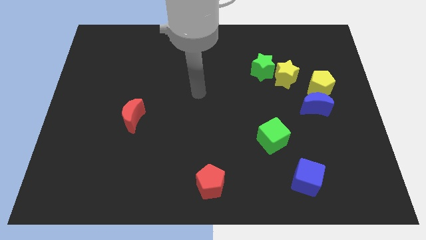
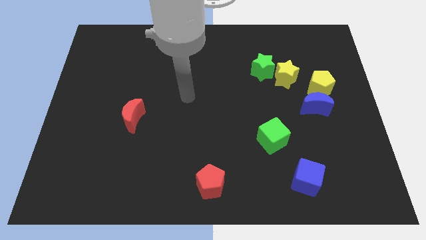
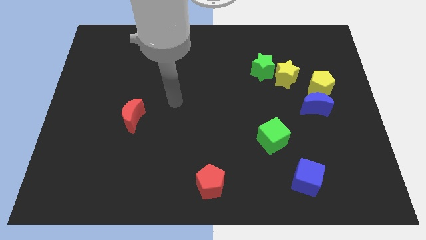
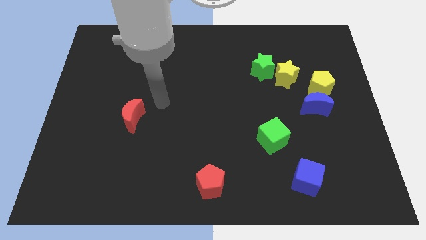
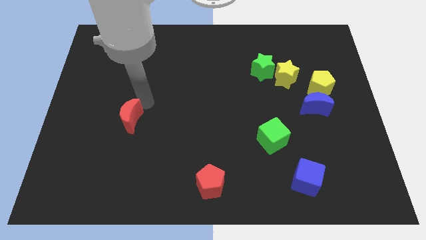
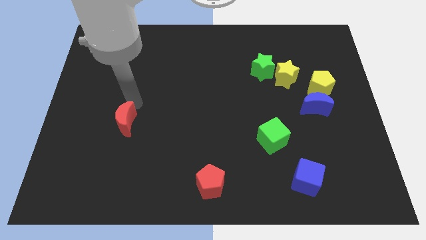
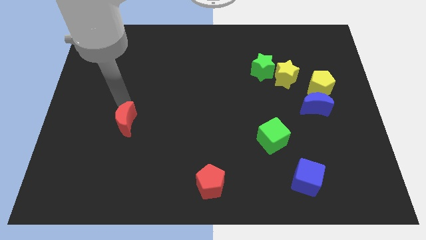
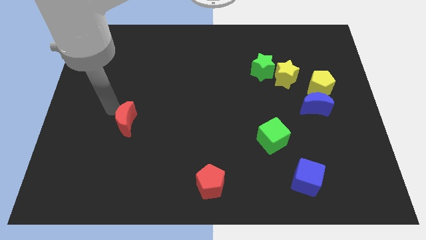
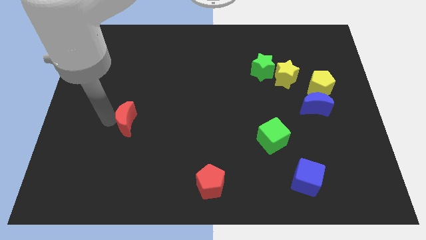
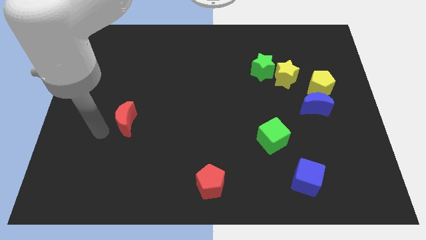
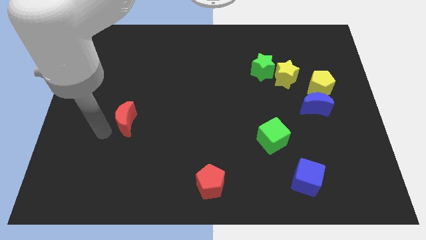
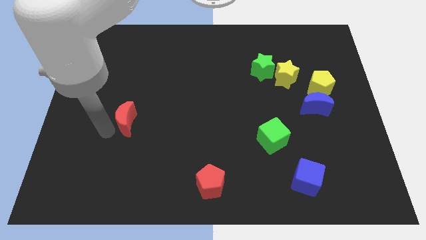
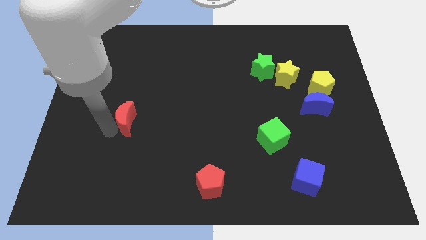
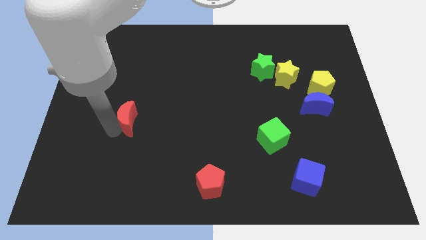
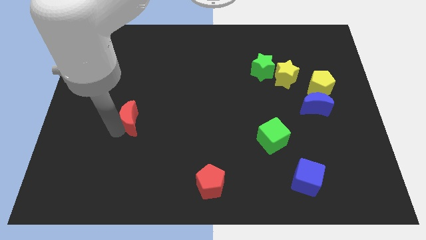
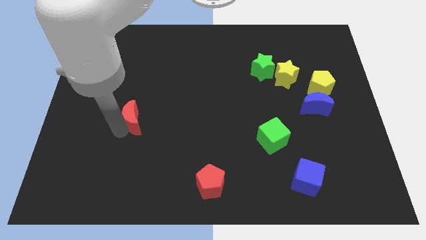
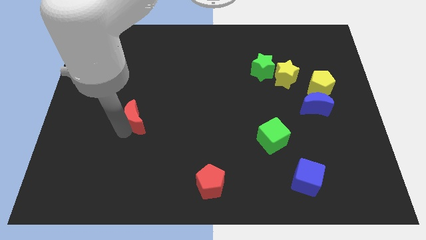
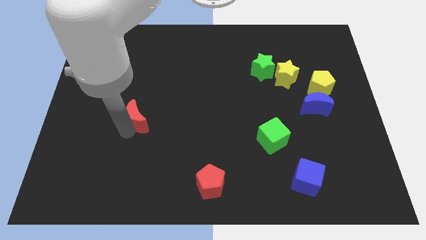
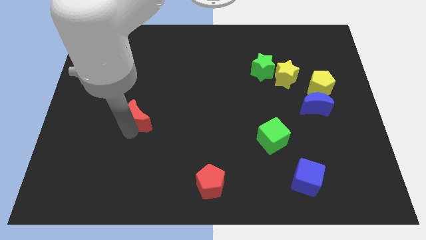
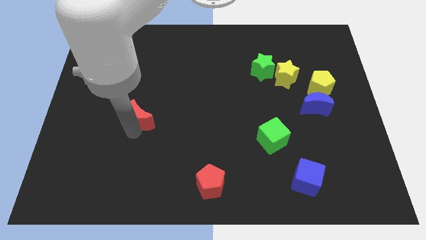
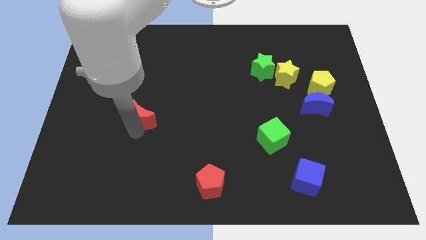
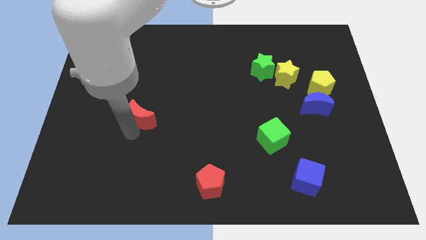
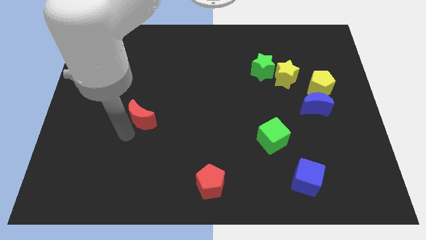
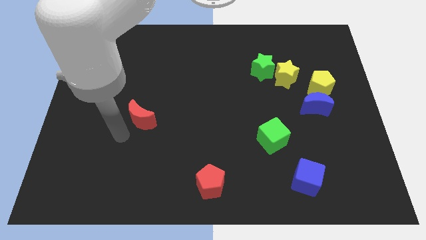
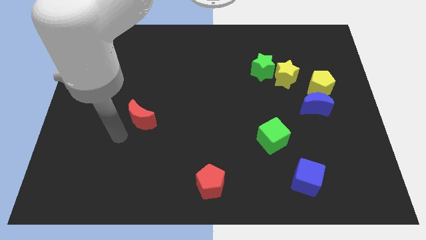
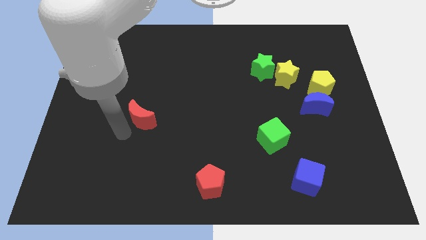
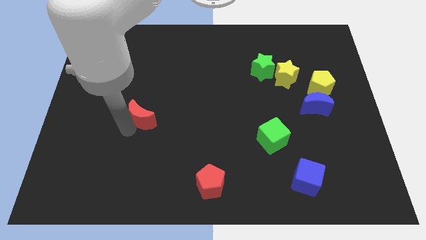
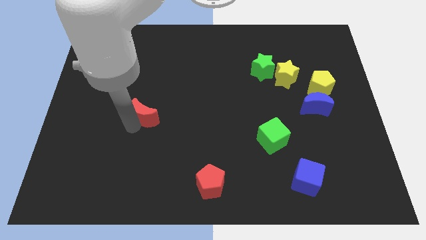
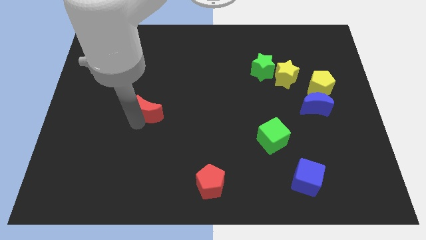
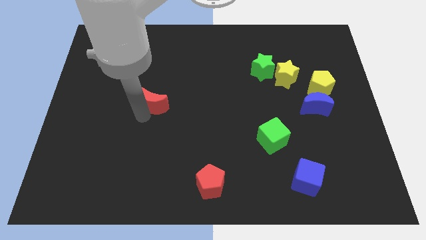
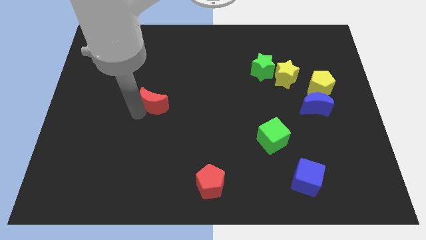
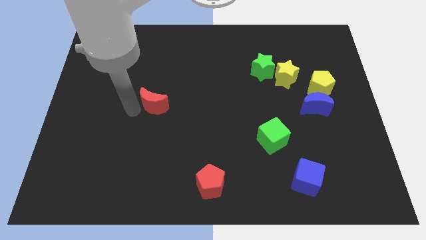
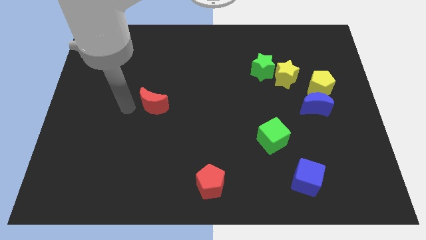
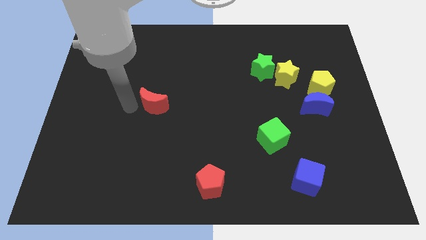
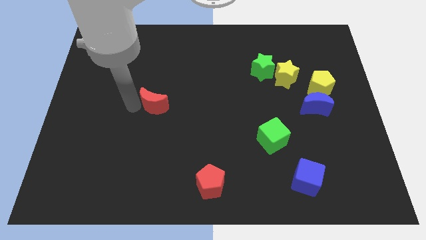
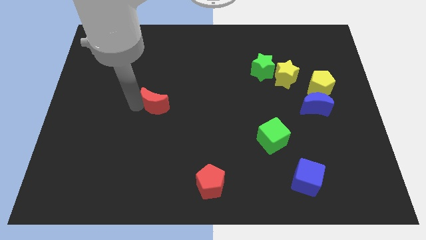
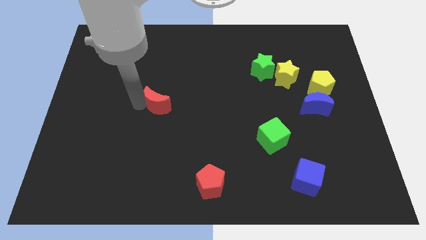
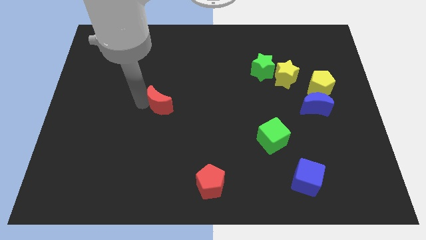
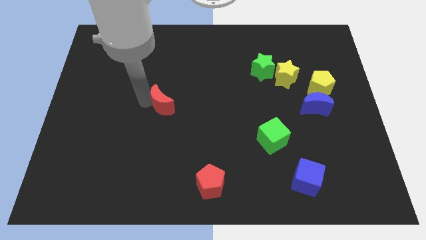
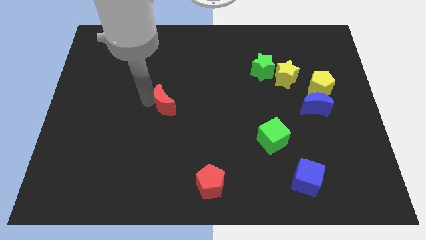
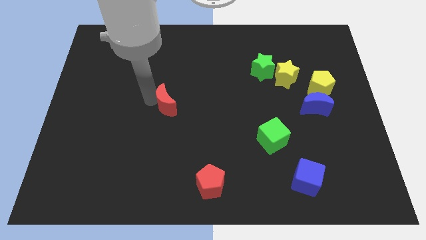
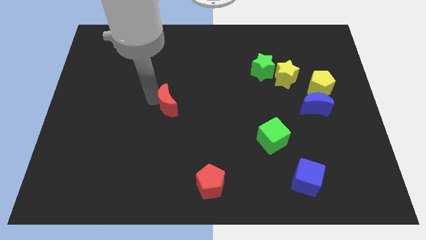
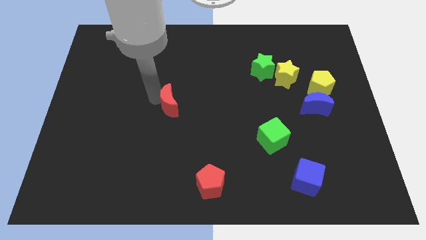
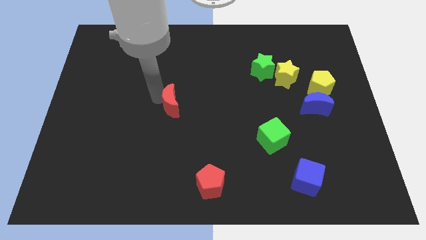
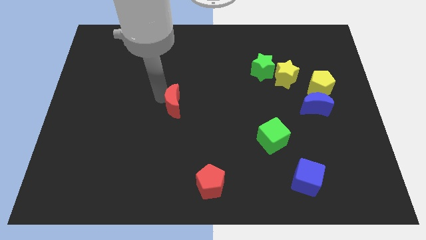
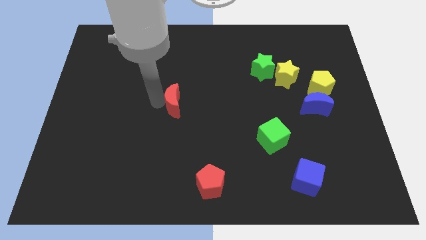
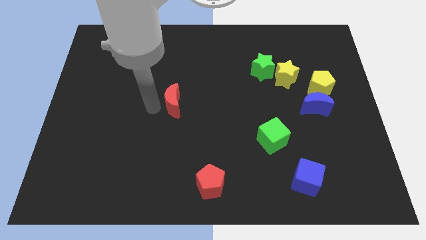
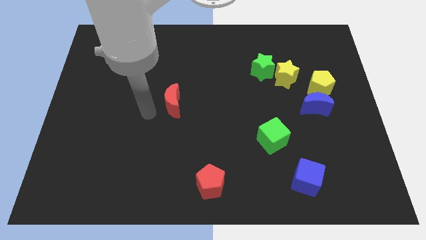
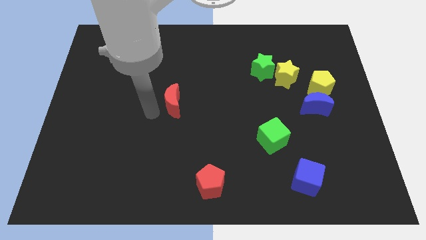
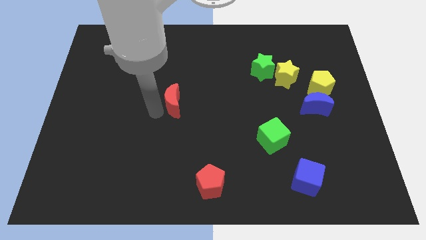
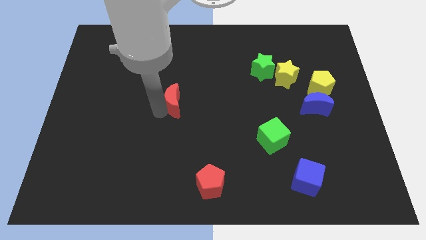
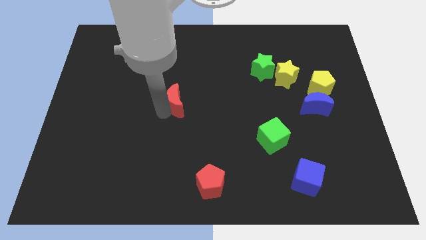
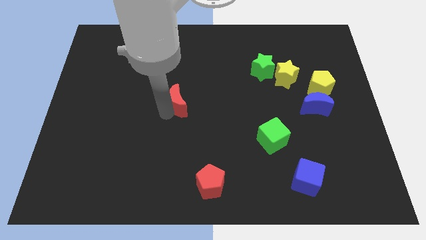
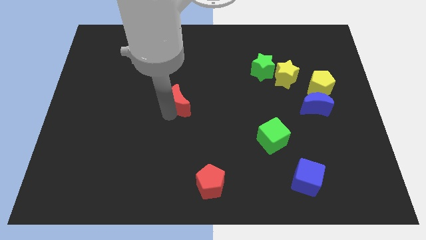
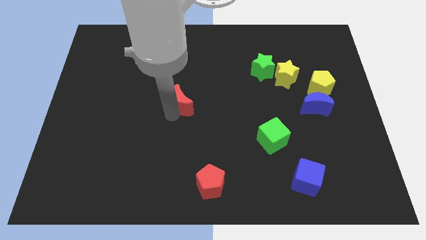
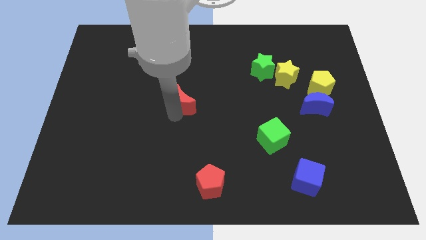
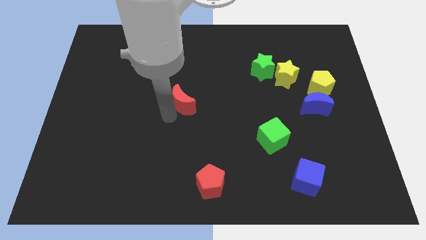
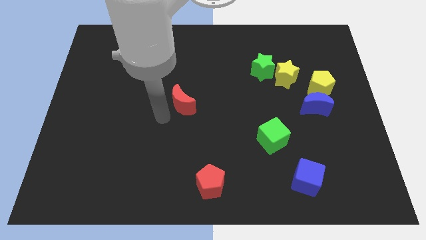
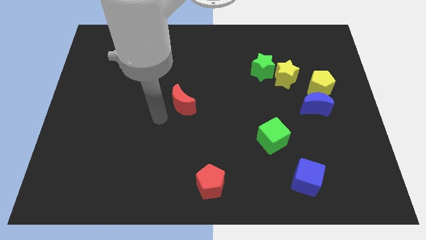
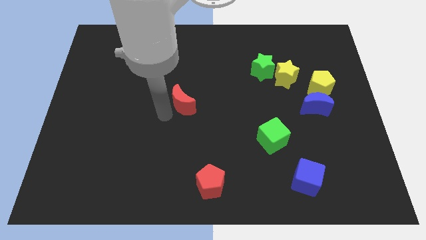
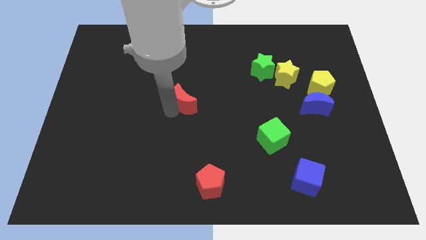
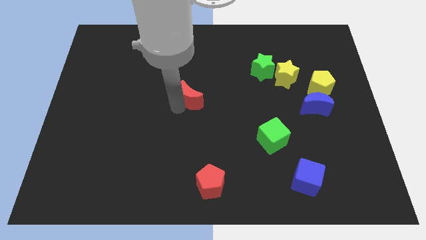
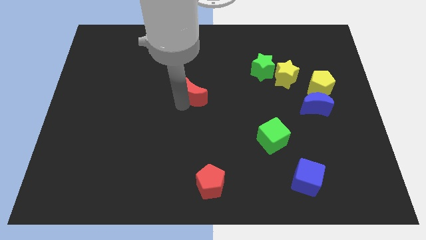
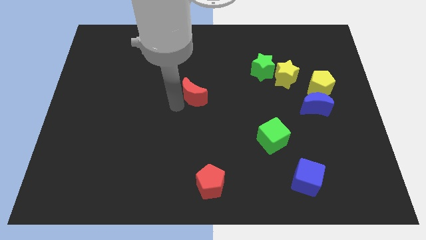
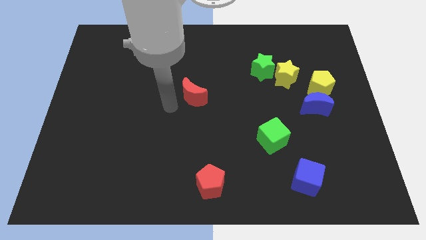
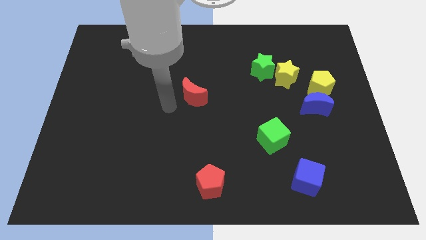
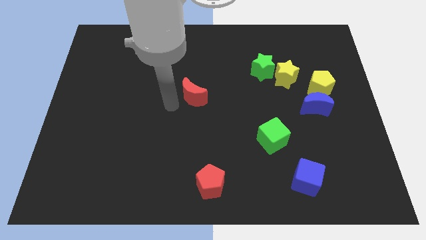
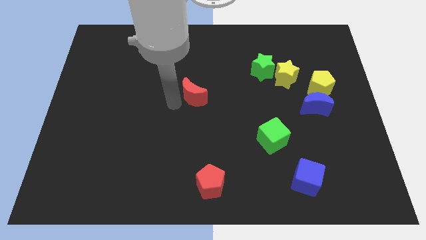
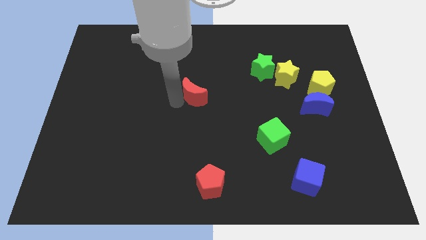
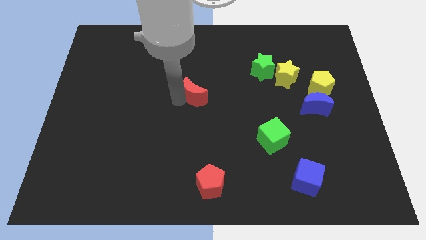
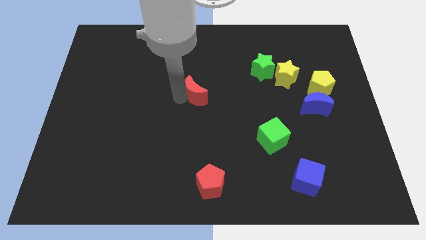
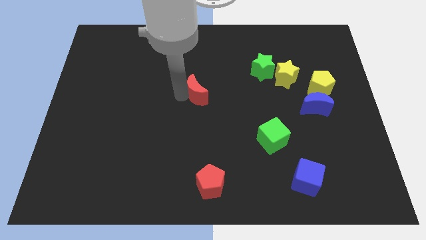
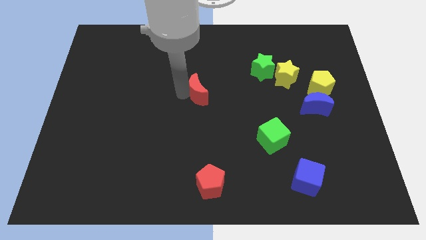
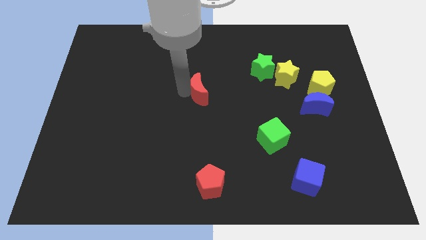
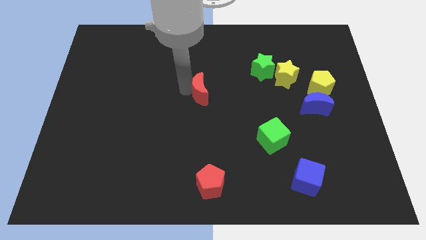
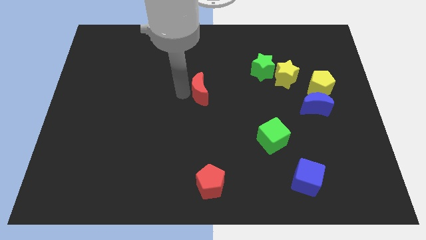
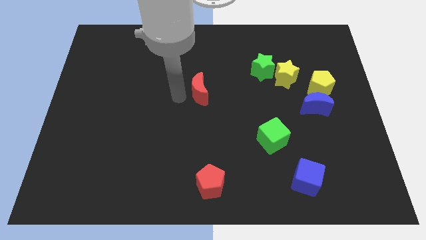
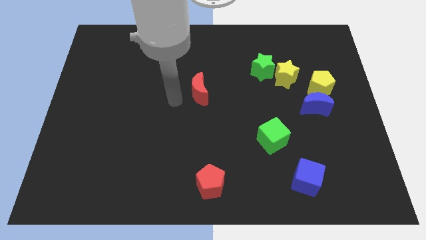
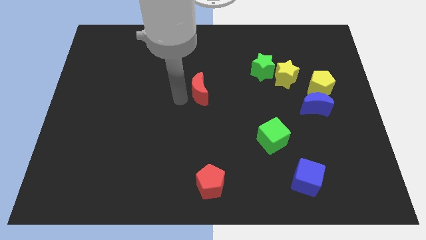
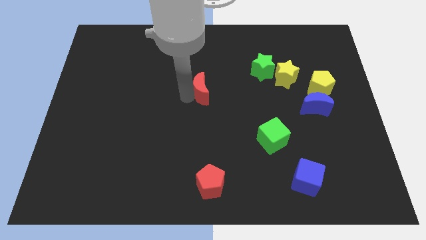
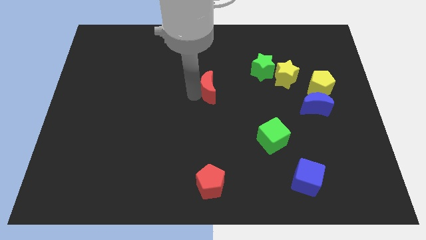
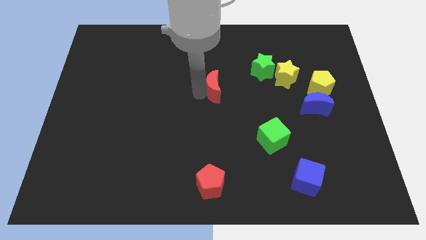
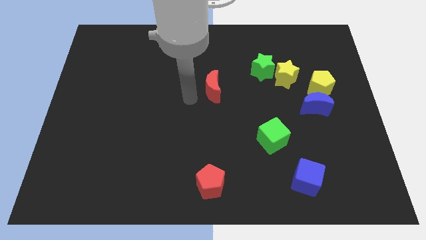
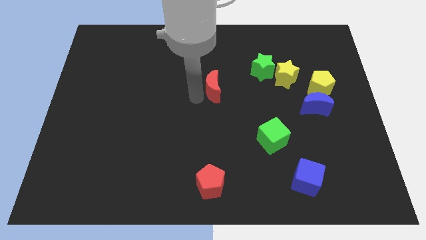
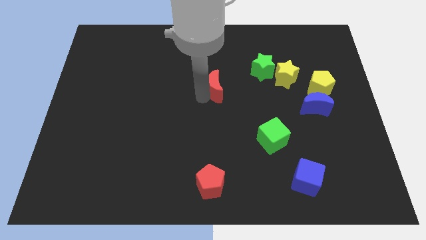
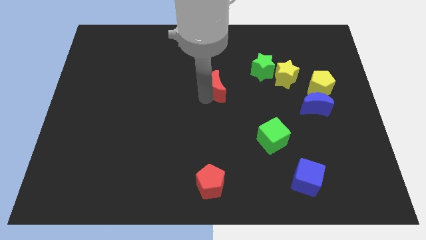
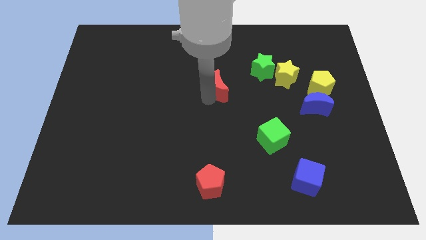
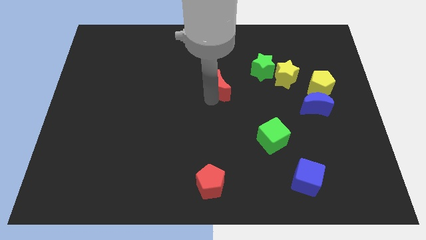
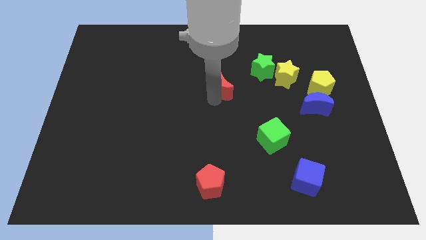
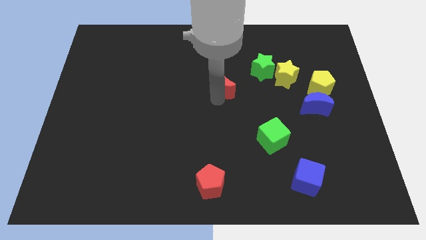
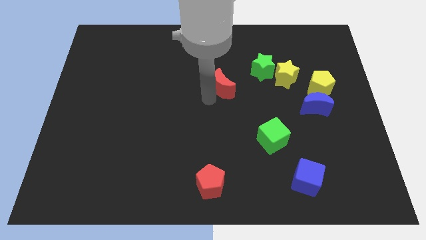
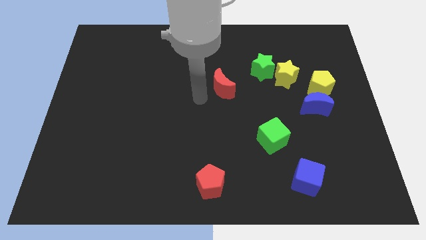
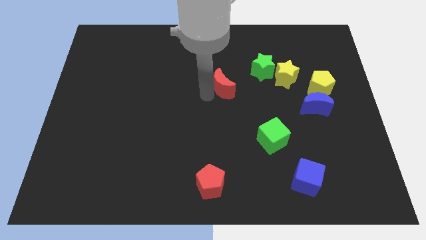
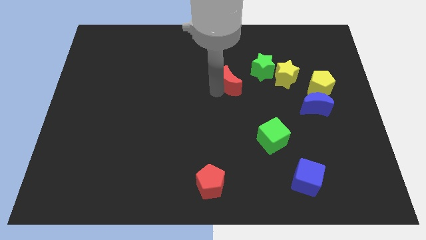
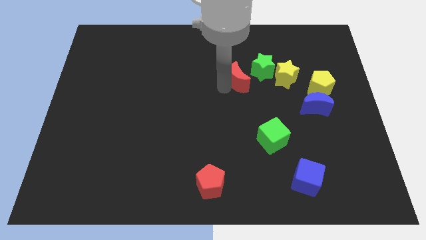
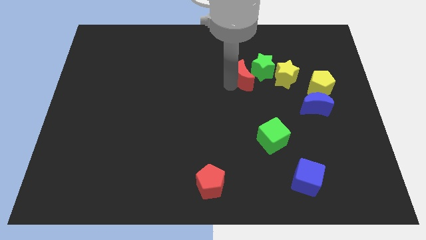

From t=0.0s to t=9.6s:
push the red moon to the green star
